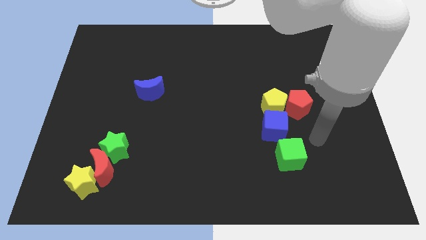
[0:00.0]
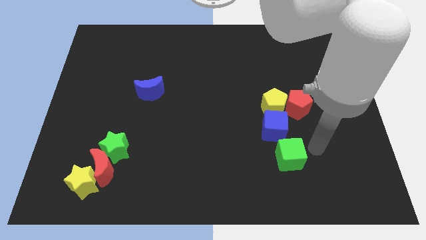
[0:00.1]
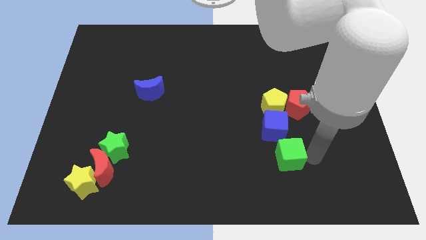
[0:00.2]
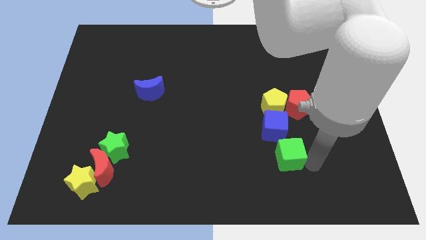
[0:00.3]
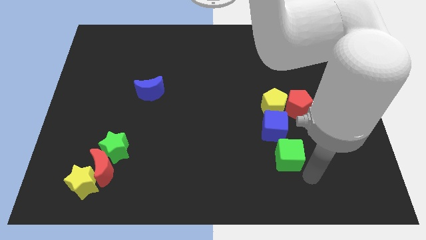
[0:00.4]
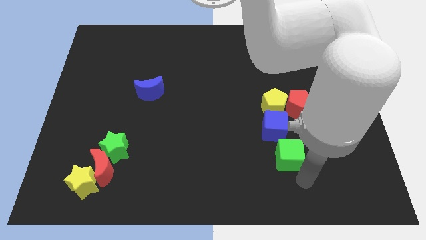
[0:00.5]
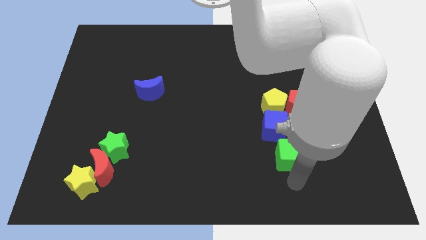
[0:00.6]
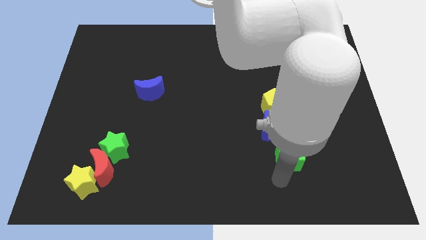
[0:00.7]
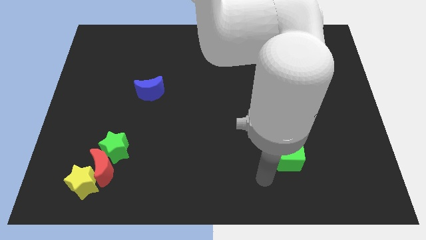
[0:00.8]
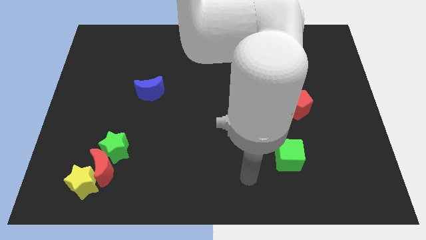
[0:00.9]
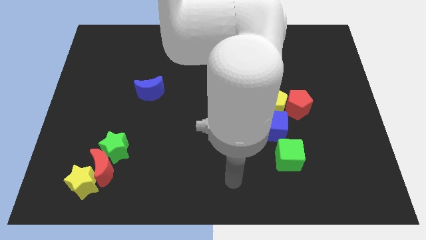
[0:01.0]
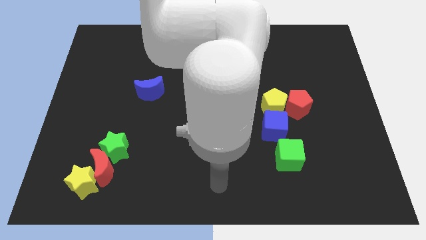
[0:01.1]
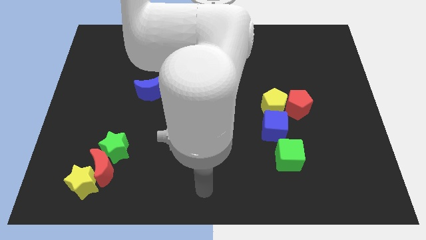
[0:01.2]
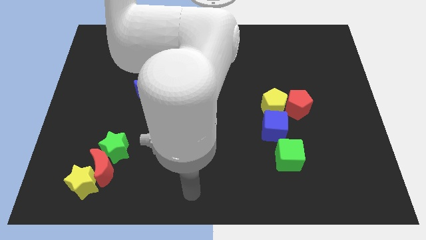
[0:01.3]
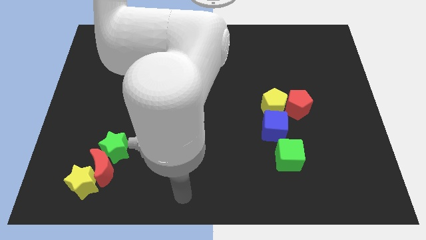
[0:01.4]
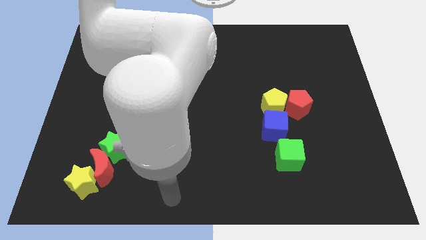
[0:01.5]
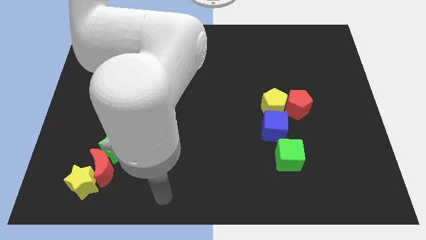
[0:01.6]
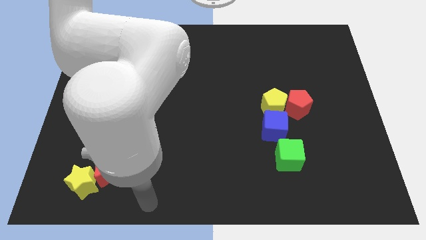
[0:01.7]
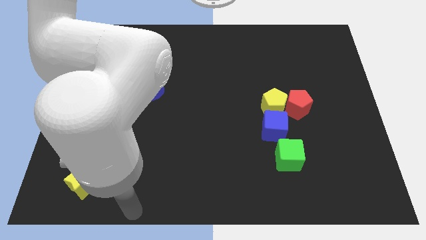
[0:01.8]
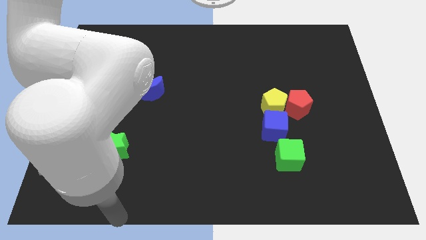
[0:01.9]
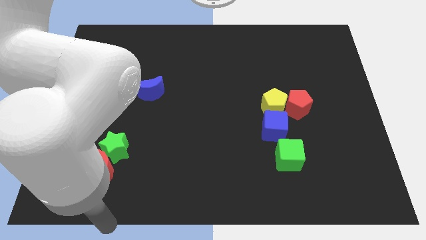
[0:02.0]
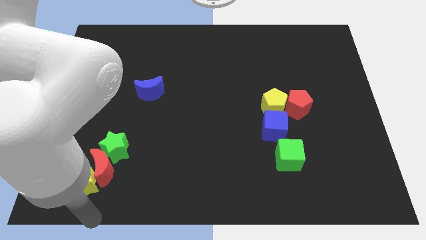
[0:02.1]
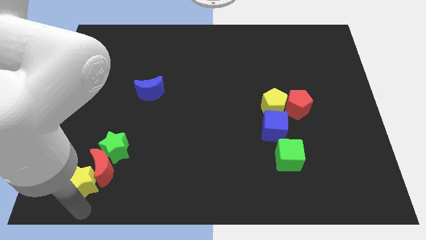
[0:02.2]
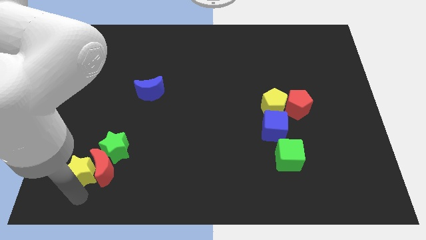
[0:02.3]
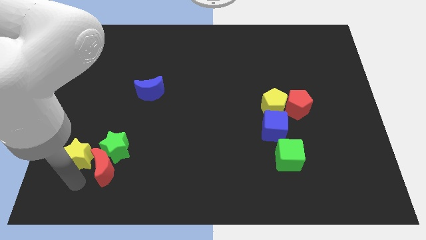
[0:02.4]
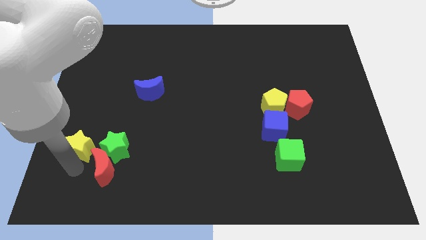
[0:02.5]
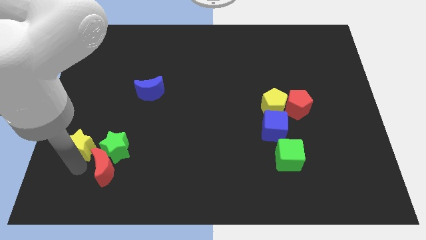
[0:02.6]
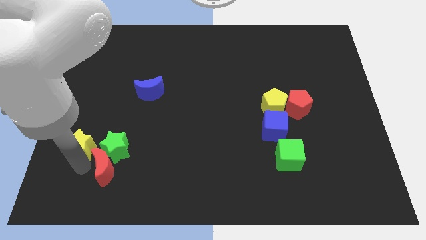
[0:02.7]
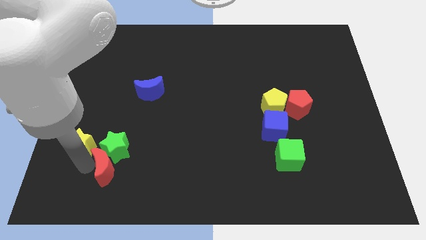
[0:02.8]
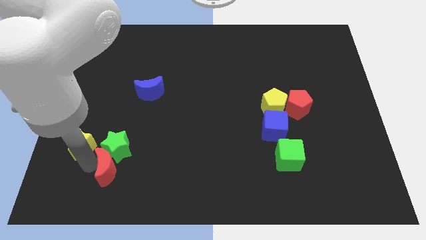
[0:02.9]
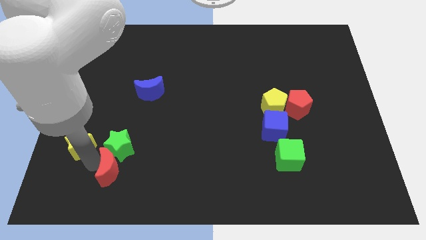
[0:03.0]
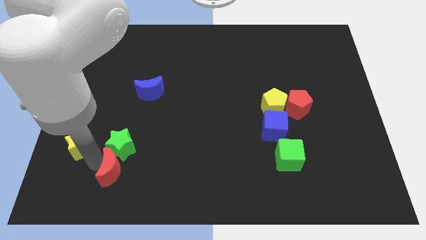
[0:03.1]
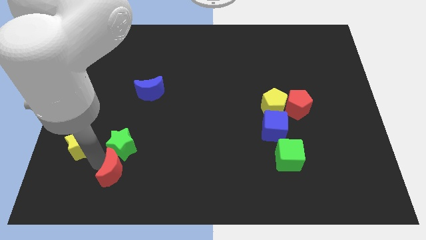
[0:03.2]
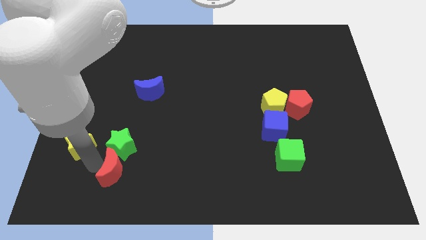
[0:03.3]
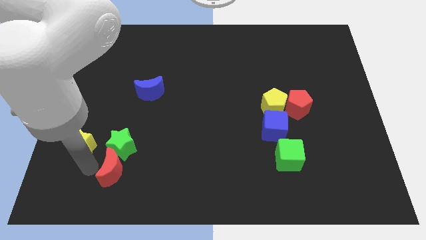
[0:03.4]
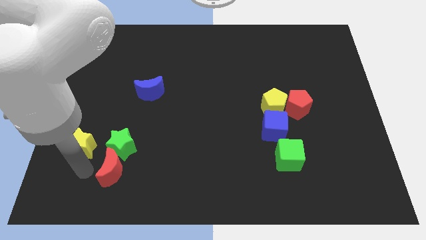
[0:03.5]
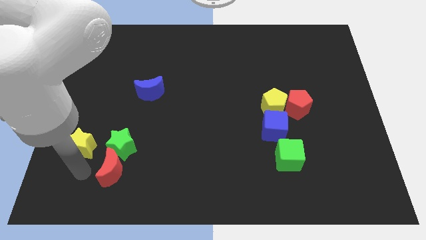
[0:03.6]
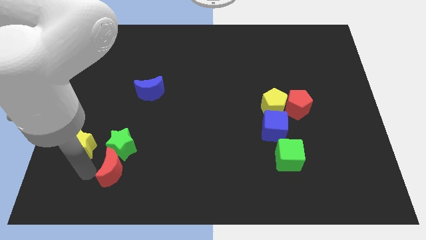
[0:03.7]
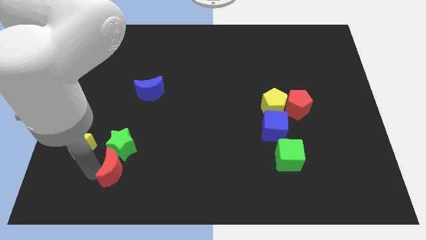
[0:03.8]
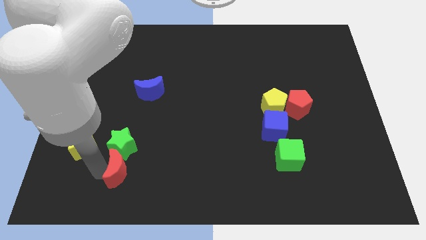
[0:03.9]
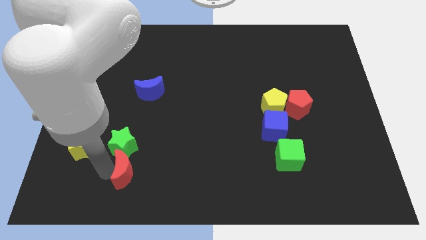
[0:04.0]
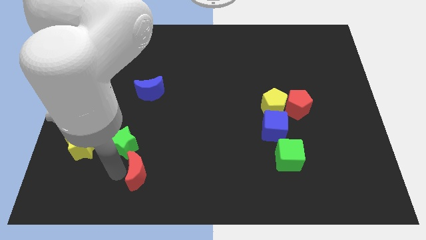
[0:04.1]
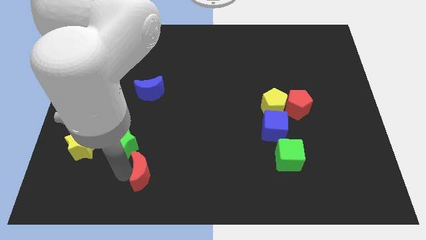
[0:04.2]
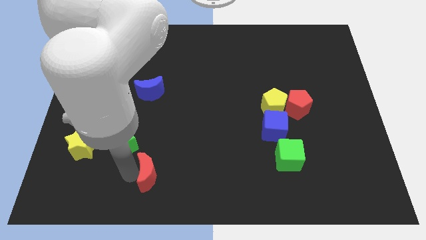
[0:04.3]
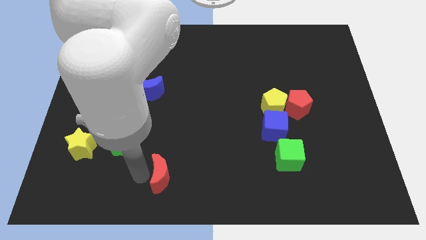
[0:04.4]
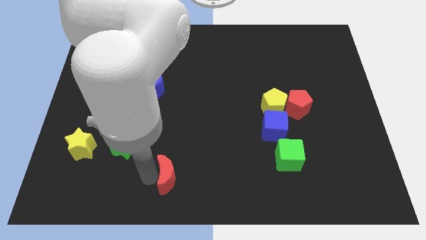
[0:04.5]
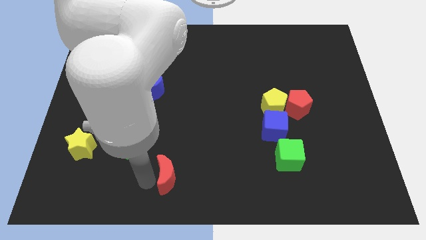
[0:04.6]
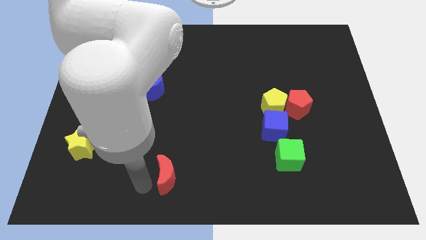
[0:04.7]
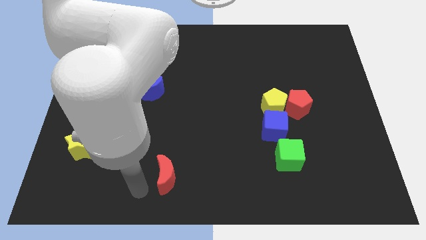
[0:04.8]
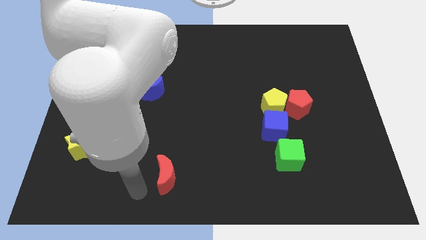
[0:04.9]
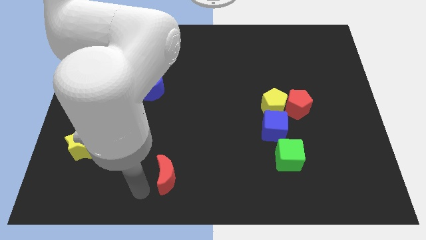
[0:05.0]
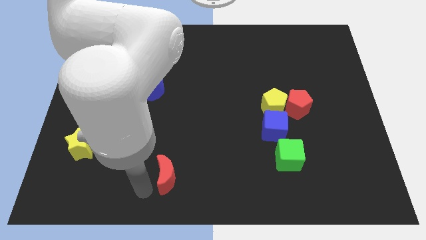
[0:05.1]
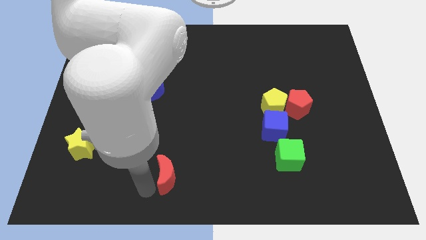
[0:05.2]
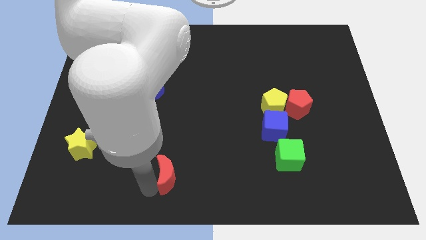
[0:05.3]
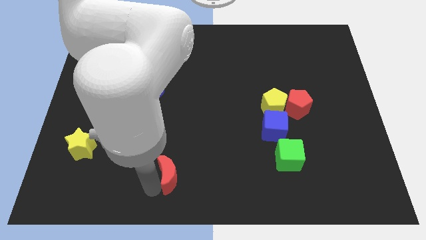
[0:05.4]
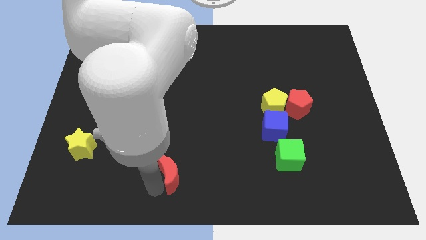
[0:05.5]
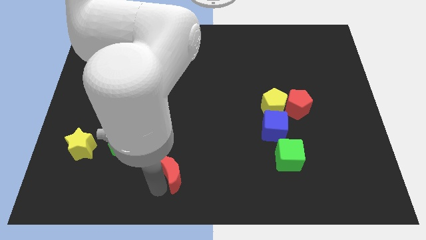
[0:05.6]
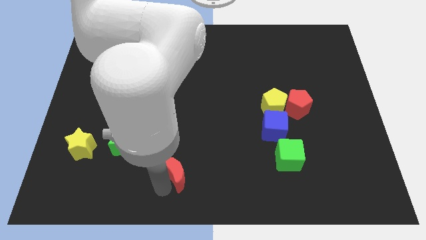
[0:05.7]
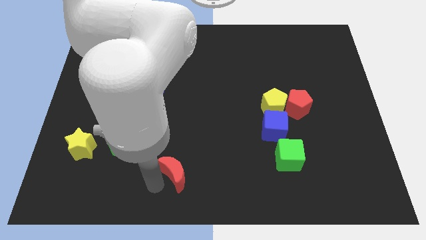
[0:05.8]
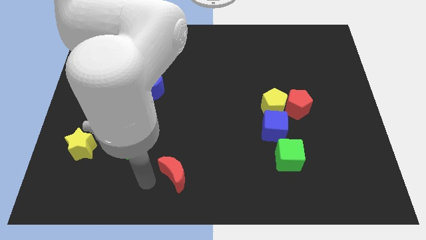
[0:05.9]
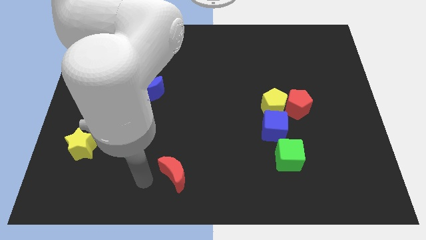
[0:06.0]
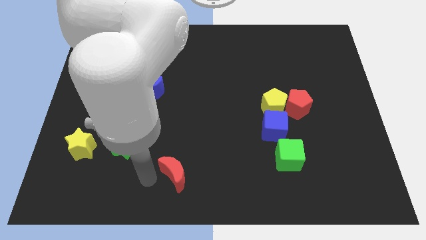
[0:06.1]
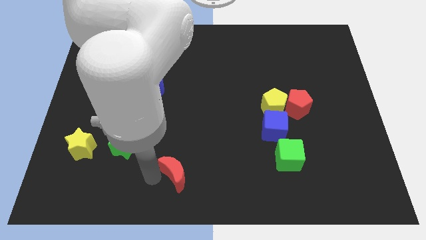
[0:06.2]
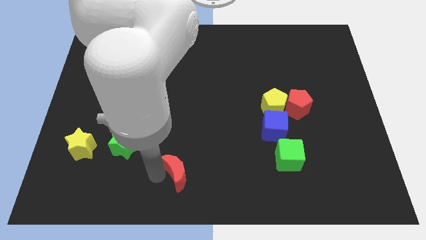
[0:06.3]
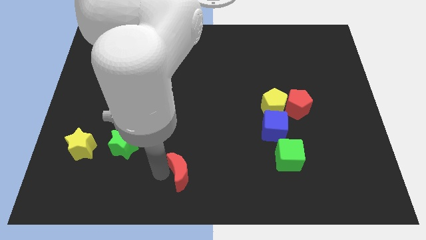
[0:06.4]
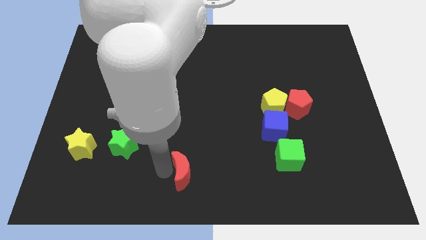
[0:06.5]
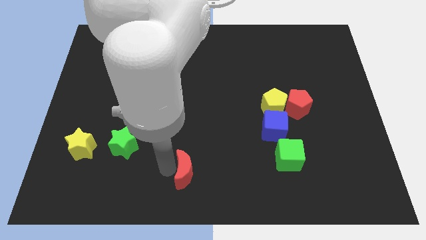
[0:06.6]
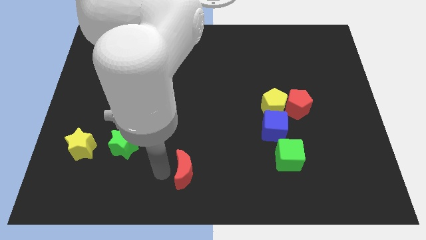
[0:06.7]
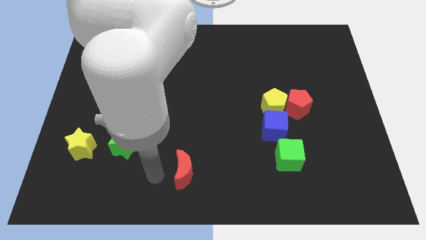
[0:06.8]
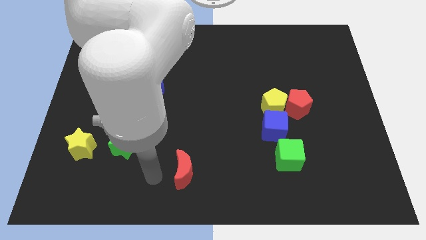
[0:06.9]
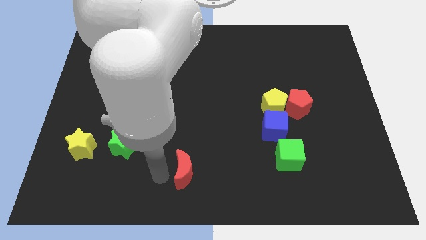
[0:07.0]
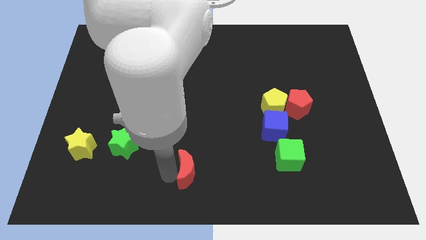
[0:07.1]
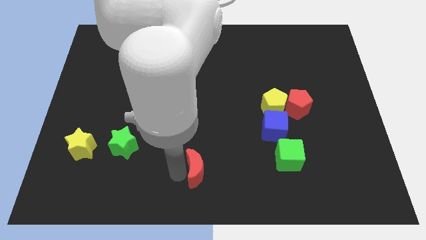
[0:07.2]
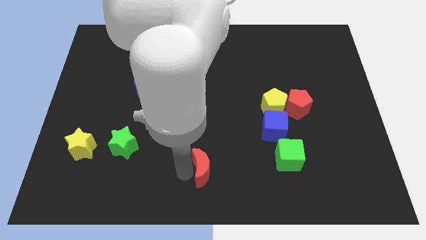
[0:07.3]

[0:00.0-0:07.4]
slide the red moon right

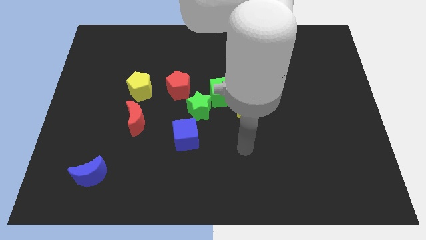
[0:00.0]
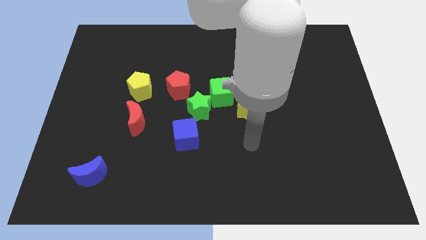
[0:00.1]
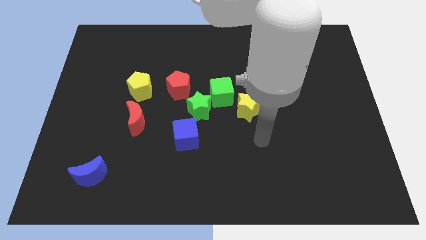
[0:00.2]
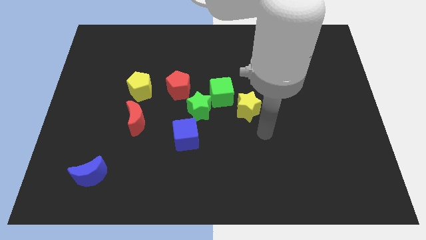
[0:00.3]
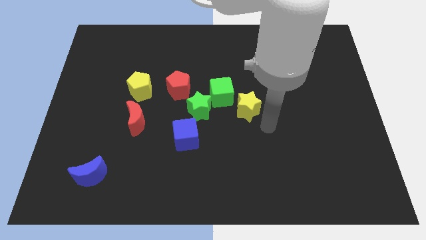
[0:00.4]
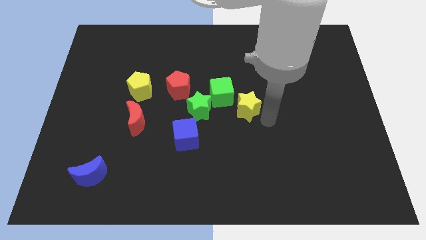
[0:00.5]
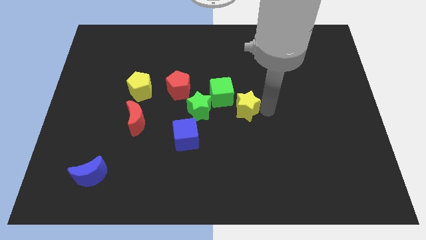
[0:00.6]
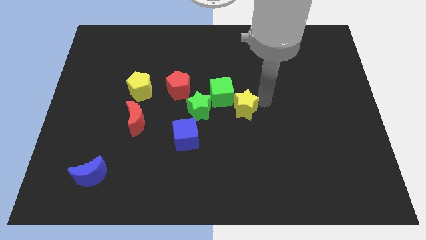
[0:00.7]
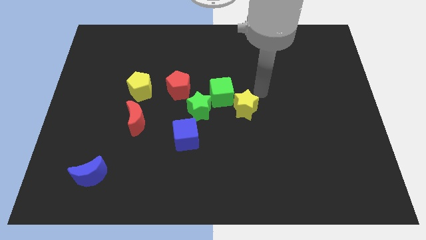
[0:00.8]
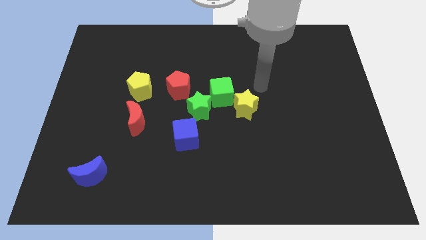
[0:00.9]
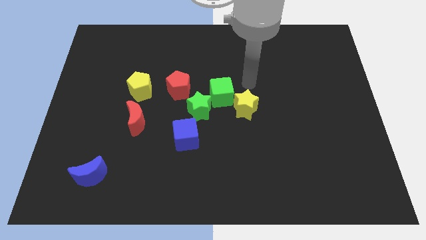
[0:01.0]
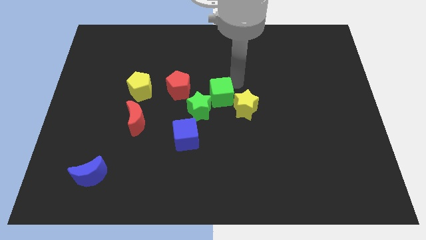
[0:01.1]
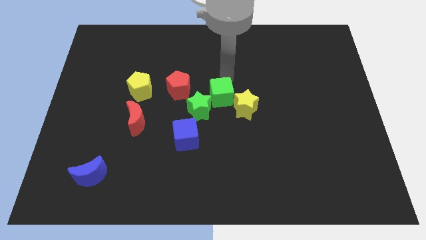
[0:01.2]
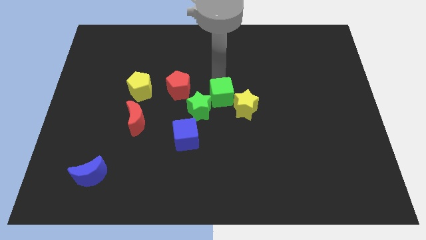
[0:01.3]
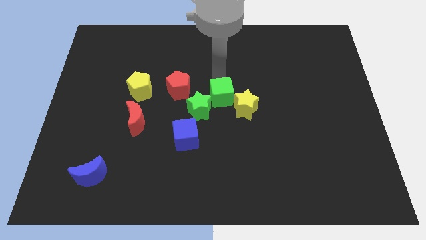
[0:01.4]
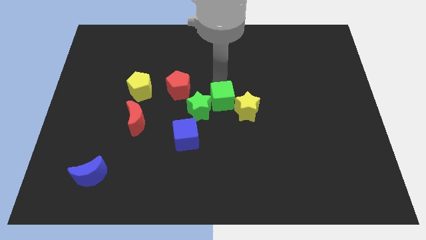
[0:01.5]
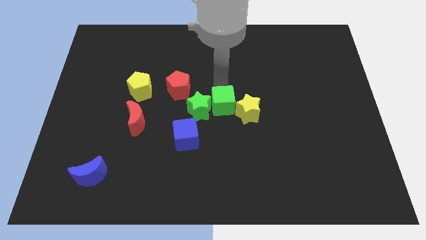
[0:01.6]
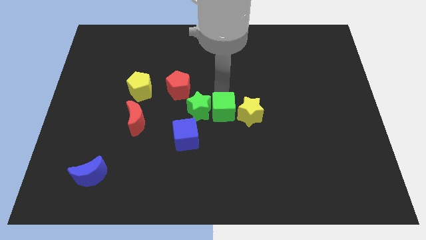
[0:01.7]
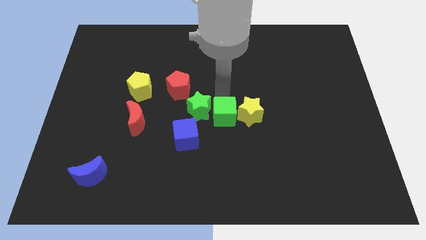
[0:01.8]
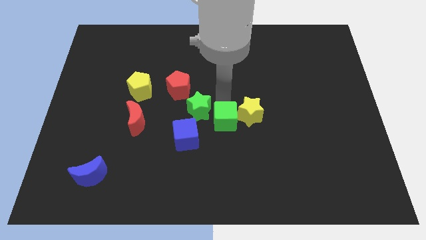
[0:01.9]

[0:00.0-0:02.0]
move the green cube downwards slightly
